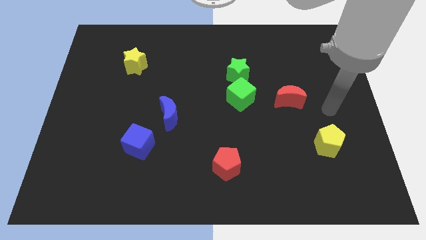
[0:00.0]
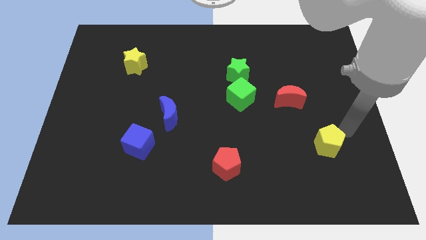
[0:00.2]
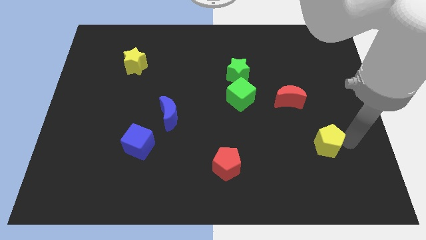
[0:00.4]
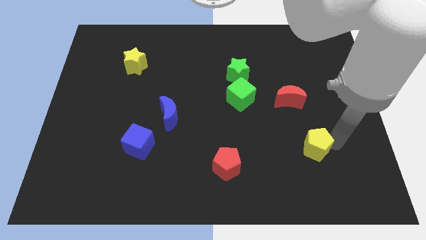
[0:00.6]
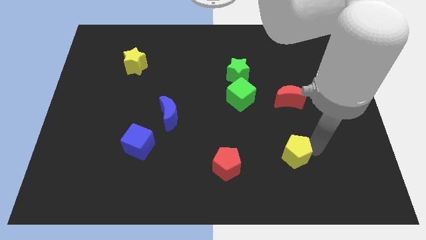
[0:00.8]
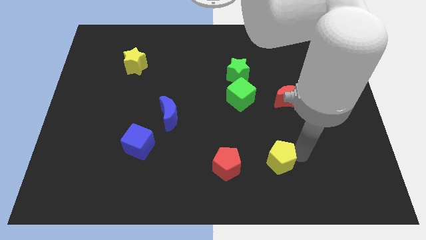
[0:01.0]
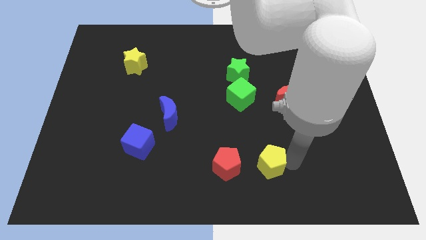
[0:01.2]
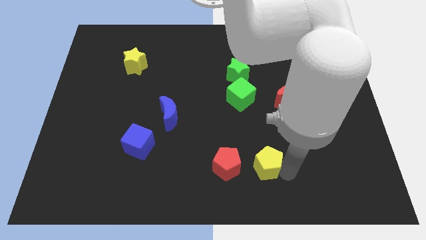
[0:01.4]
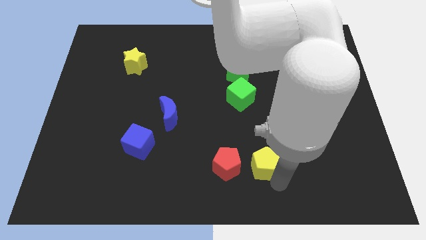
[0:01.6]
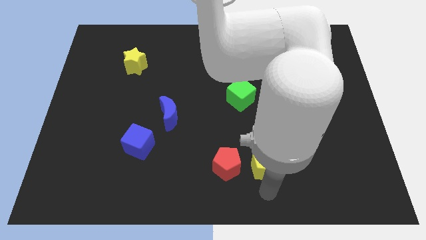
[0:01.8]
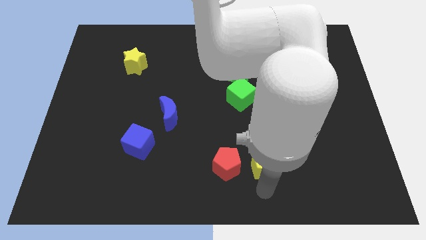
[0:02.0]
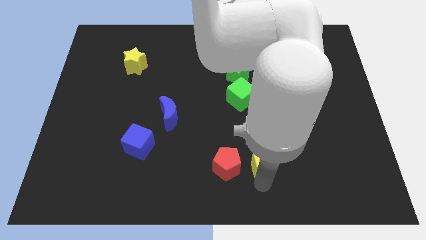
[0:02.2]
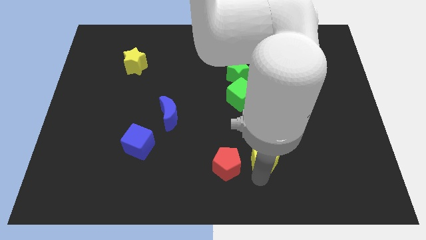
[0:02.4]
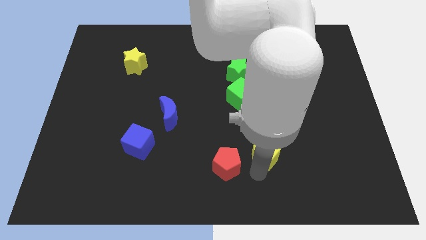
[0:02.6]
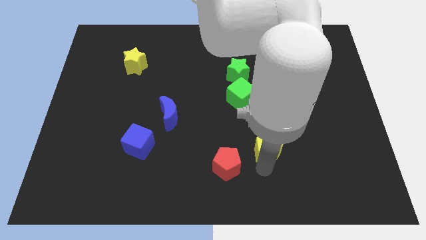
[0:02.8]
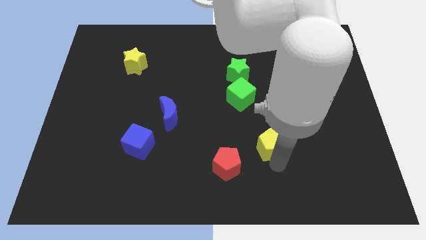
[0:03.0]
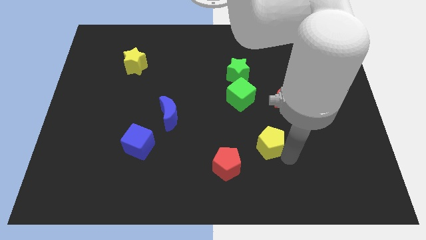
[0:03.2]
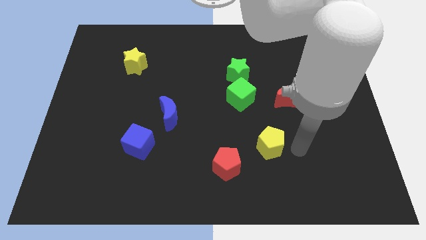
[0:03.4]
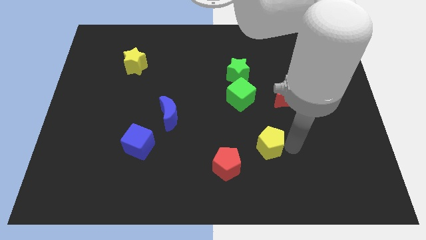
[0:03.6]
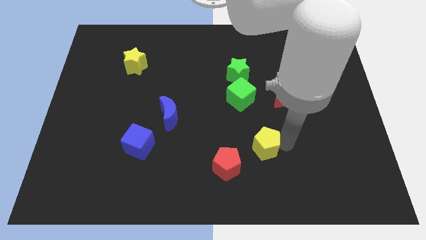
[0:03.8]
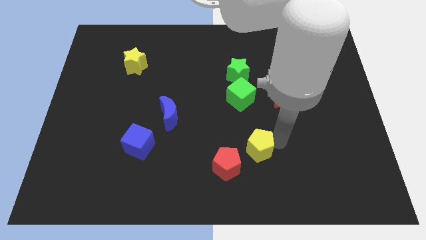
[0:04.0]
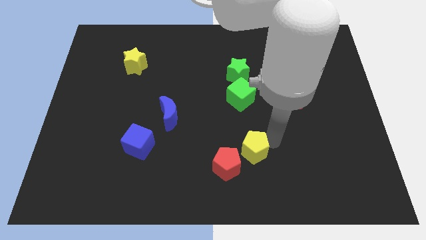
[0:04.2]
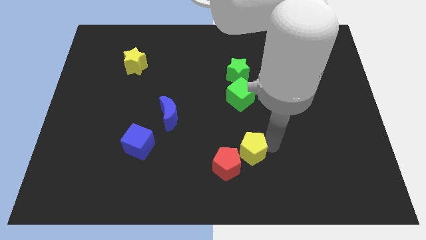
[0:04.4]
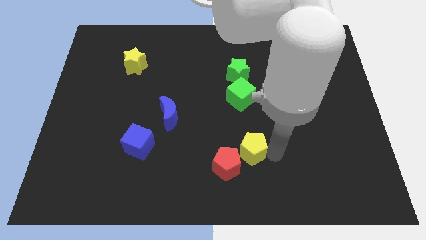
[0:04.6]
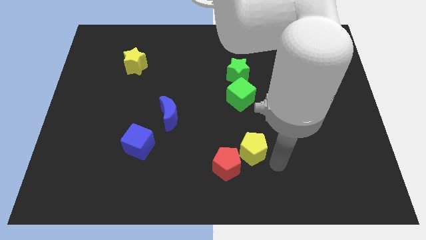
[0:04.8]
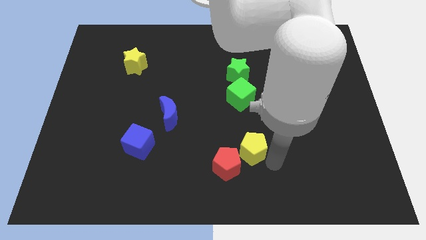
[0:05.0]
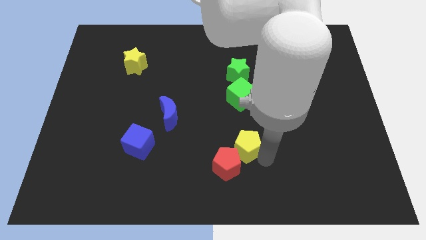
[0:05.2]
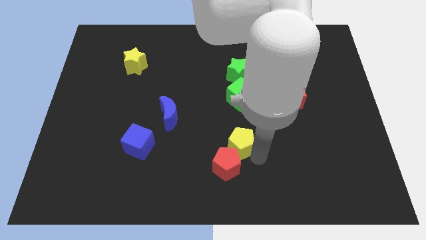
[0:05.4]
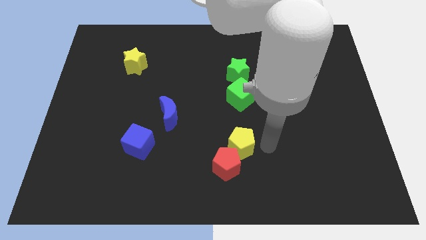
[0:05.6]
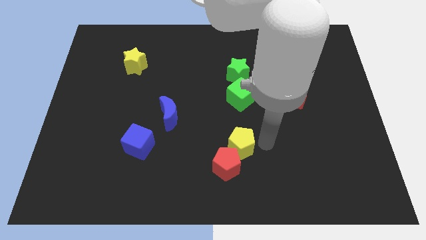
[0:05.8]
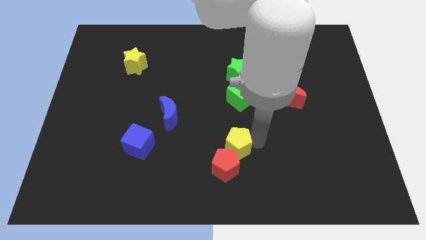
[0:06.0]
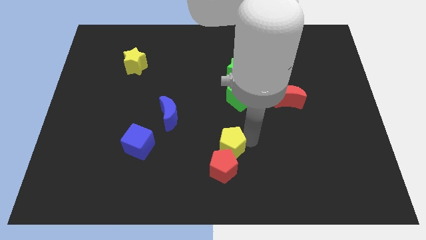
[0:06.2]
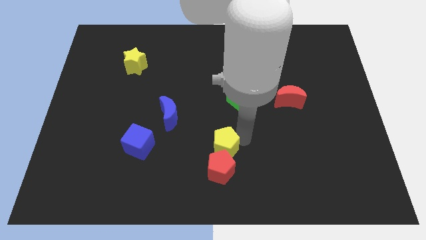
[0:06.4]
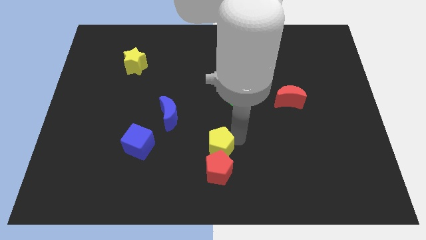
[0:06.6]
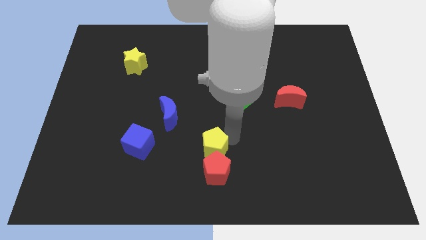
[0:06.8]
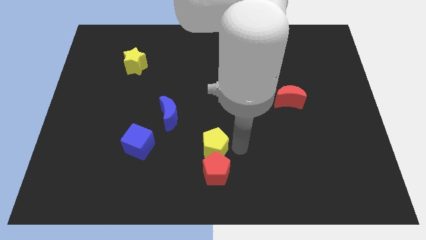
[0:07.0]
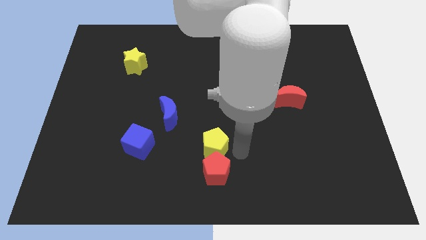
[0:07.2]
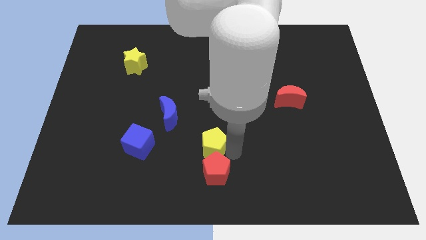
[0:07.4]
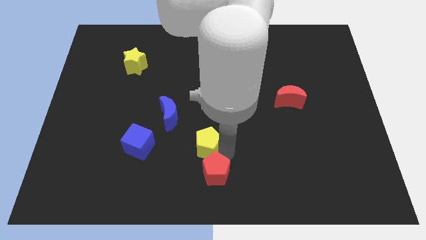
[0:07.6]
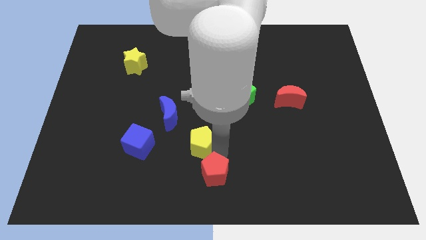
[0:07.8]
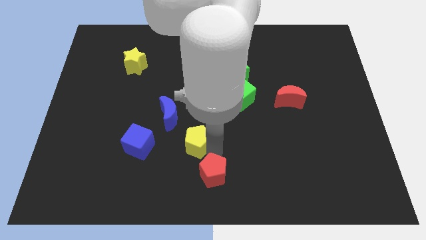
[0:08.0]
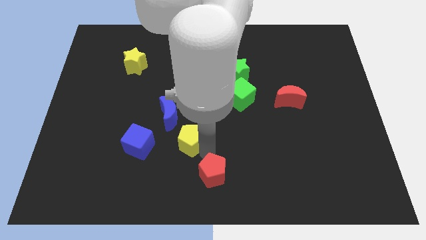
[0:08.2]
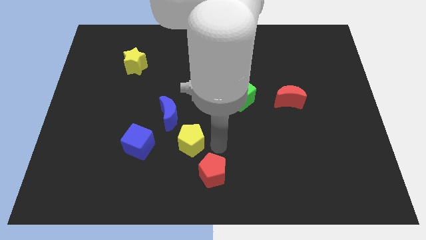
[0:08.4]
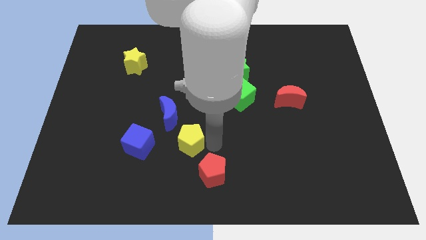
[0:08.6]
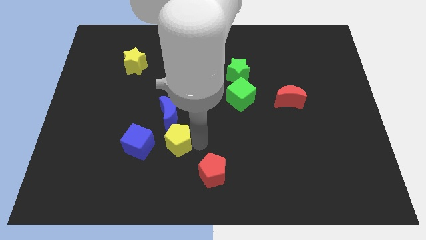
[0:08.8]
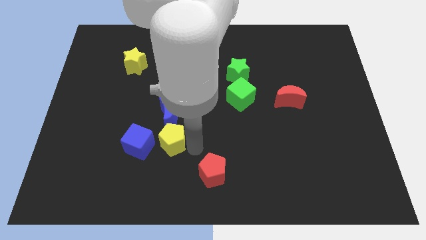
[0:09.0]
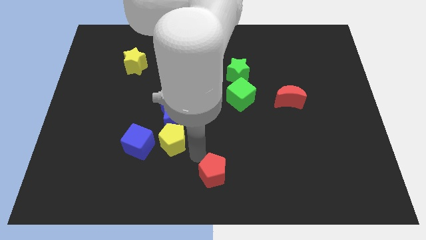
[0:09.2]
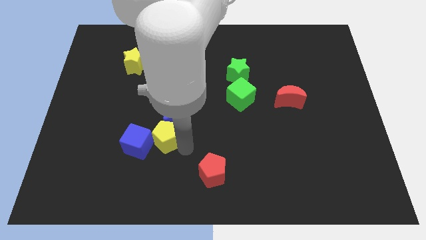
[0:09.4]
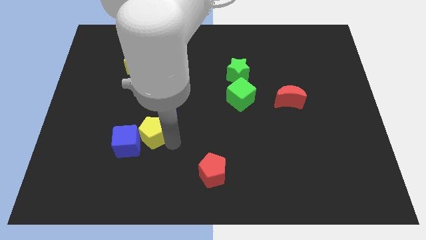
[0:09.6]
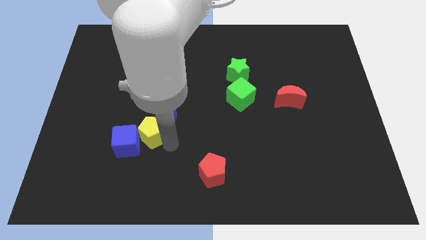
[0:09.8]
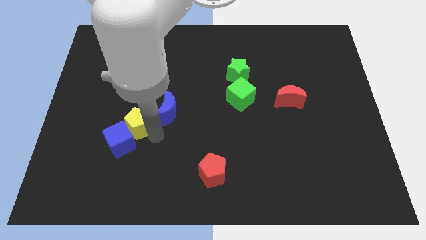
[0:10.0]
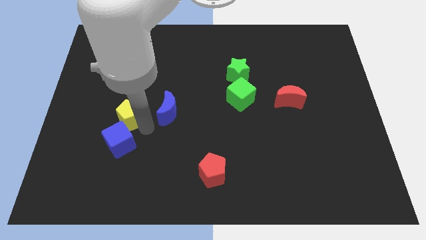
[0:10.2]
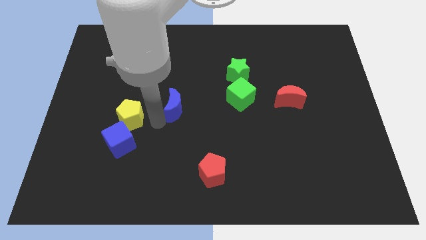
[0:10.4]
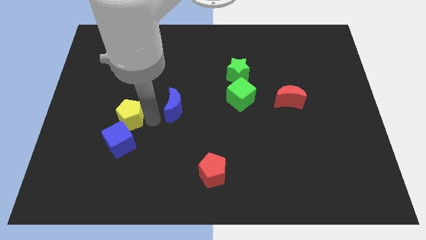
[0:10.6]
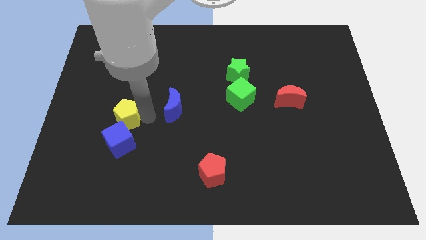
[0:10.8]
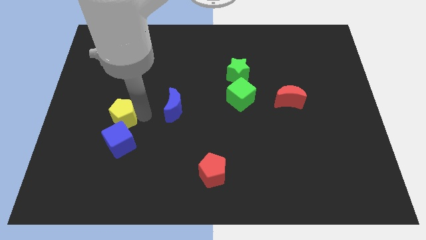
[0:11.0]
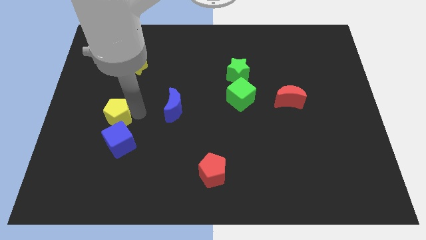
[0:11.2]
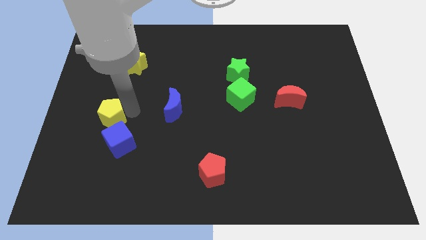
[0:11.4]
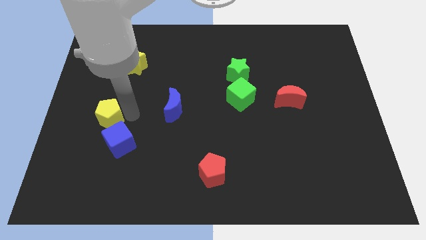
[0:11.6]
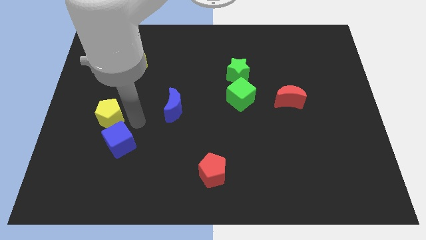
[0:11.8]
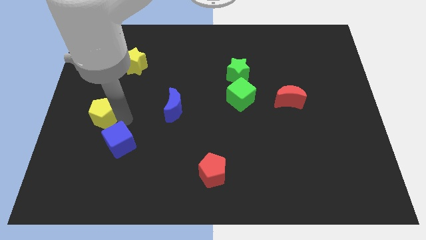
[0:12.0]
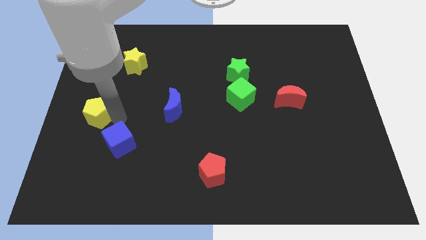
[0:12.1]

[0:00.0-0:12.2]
put the yellow pentagon to the left side
